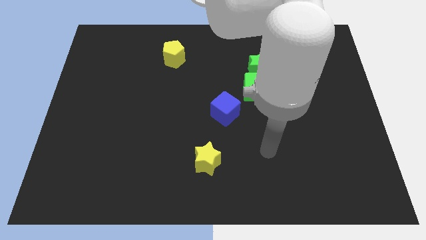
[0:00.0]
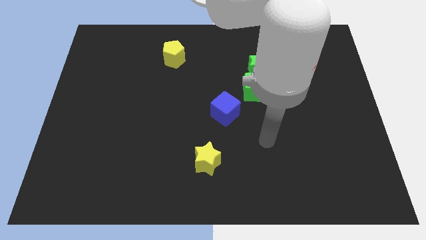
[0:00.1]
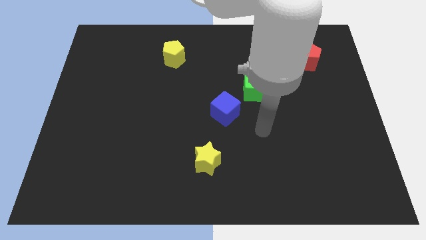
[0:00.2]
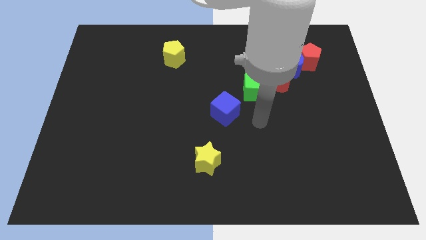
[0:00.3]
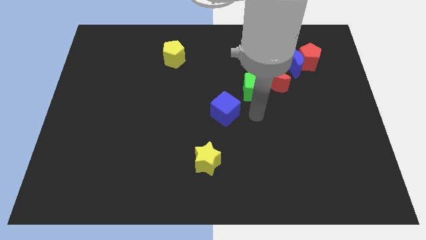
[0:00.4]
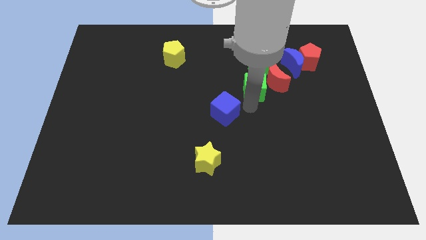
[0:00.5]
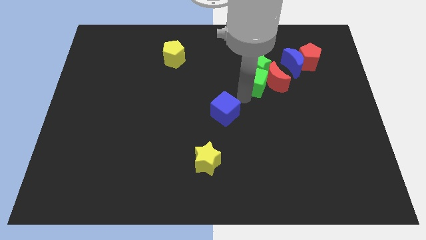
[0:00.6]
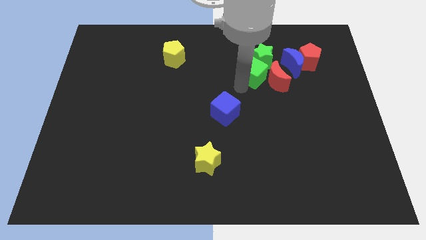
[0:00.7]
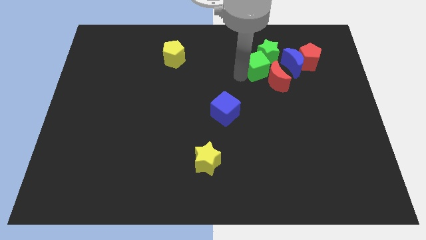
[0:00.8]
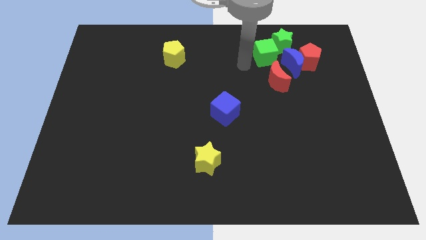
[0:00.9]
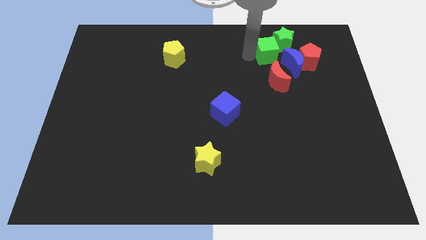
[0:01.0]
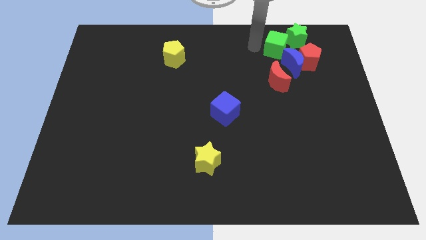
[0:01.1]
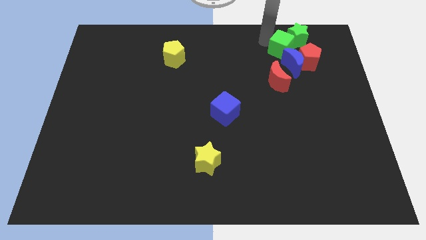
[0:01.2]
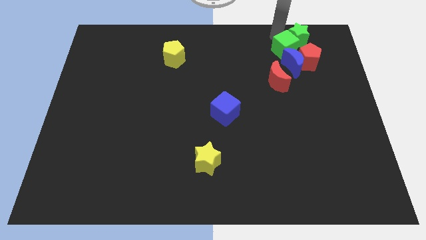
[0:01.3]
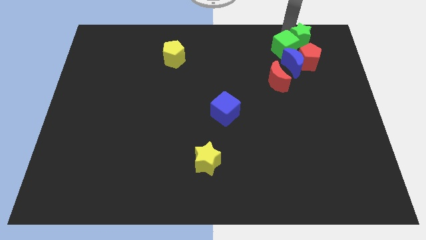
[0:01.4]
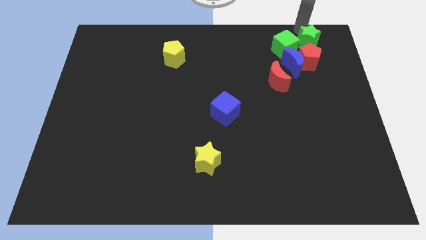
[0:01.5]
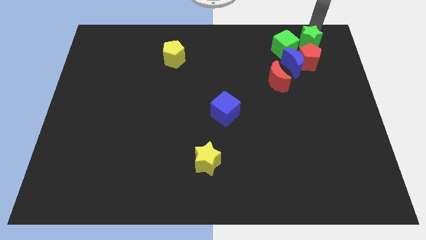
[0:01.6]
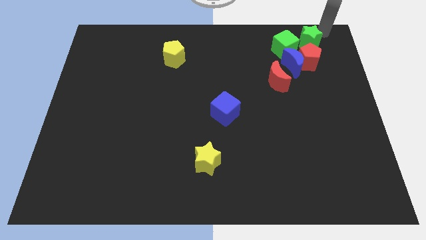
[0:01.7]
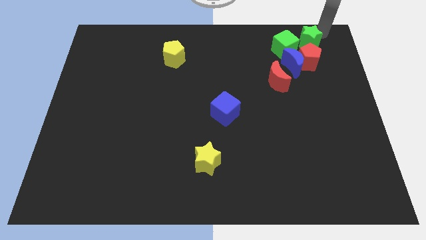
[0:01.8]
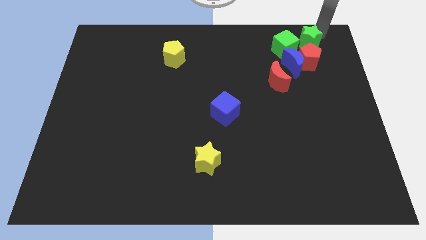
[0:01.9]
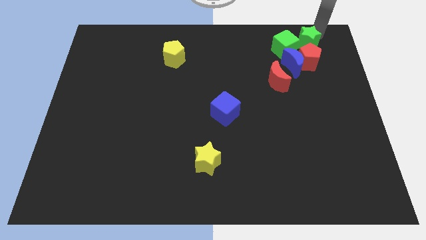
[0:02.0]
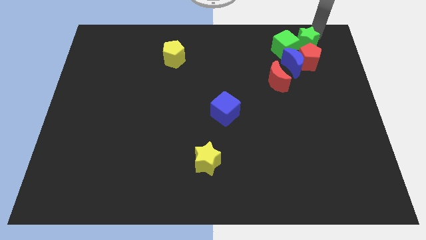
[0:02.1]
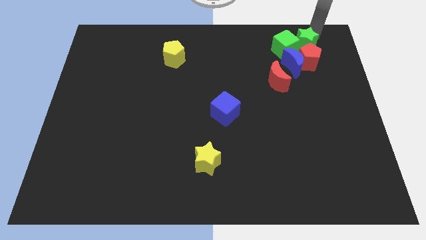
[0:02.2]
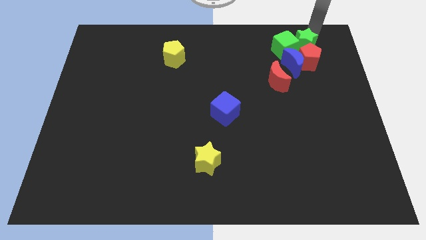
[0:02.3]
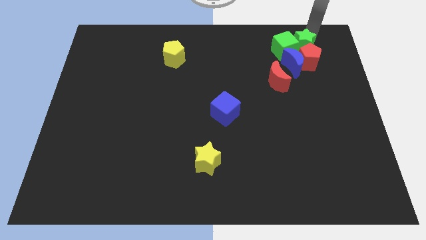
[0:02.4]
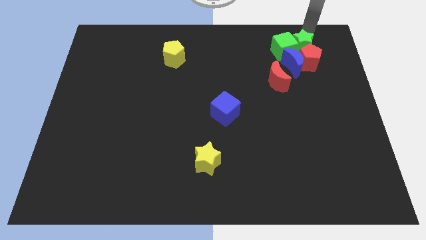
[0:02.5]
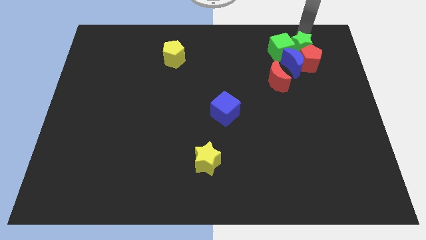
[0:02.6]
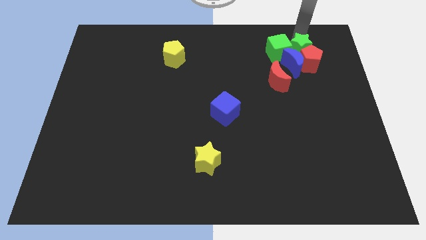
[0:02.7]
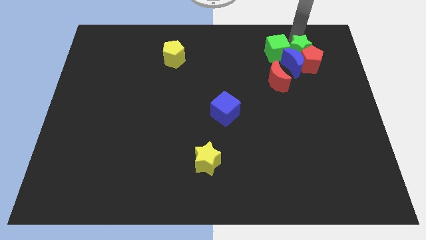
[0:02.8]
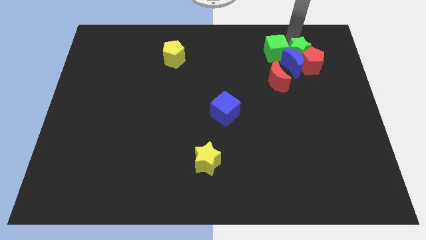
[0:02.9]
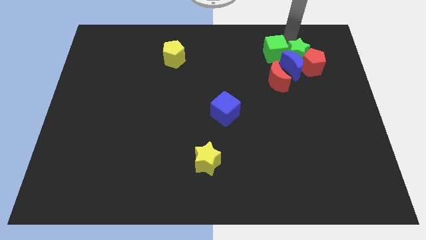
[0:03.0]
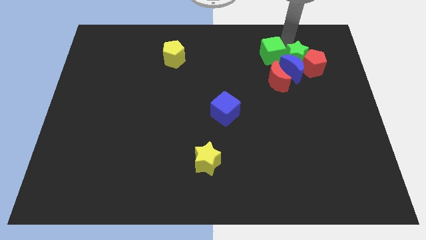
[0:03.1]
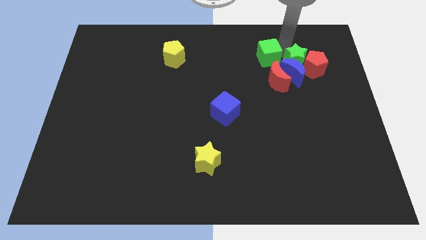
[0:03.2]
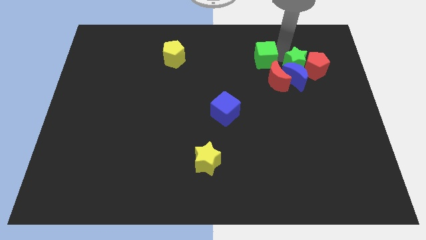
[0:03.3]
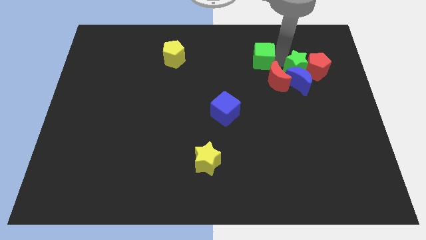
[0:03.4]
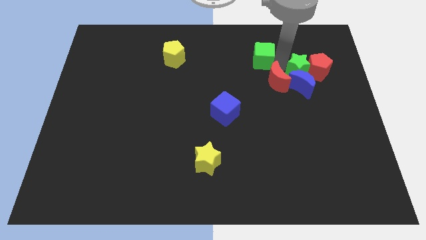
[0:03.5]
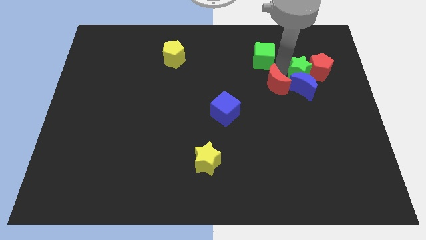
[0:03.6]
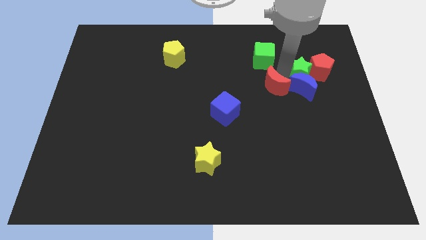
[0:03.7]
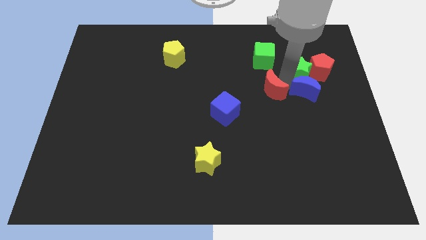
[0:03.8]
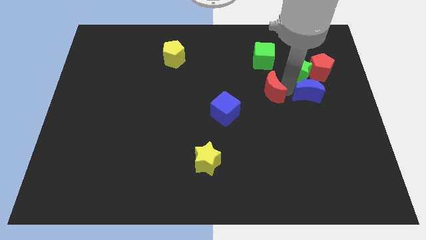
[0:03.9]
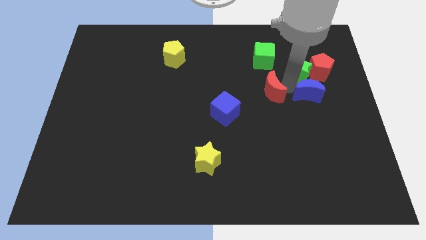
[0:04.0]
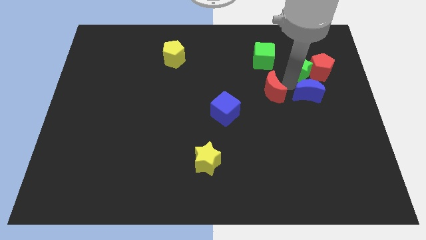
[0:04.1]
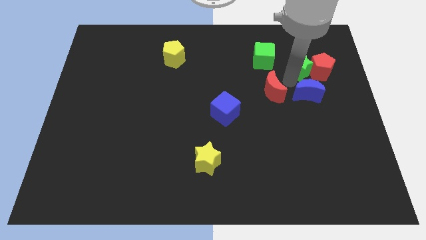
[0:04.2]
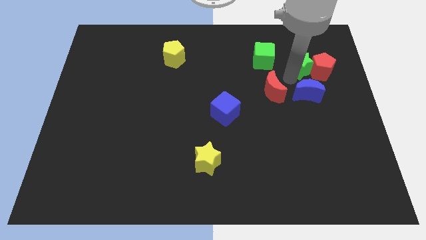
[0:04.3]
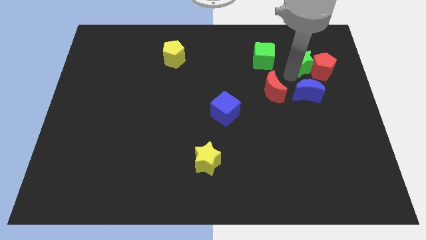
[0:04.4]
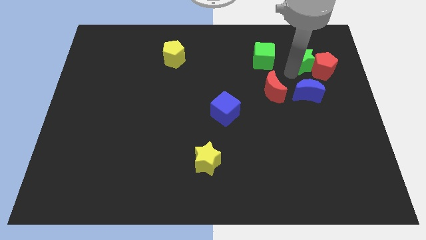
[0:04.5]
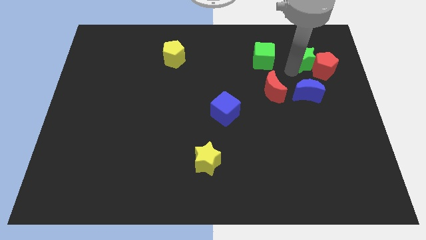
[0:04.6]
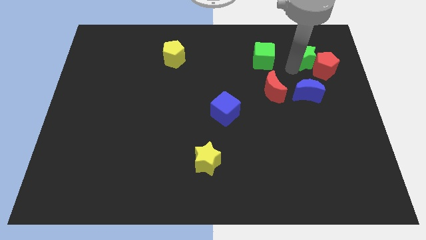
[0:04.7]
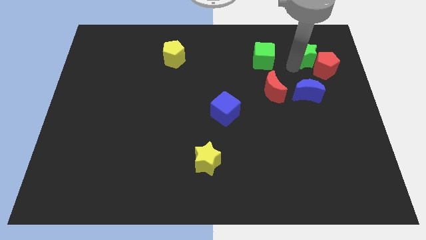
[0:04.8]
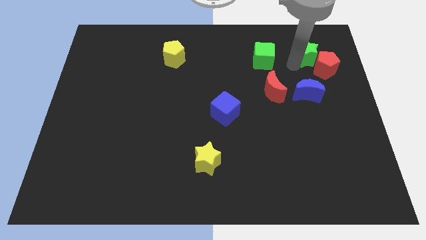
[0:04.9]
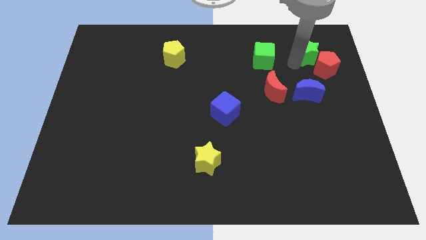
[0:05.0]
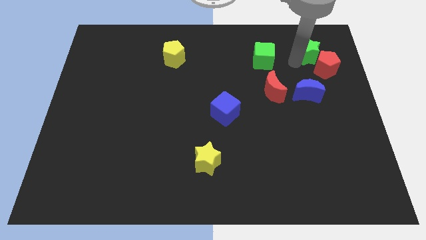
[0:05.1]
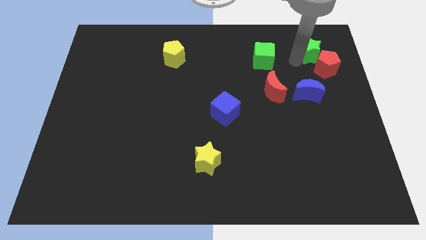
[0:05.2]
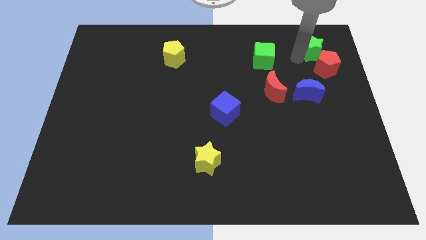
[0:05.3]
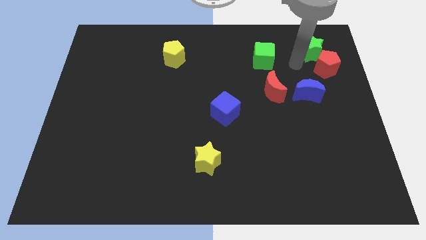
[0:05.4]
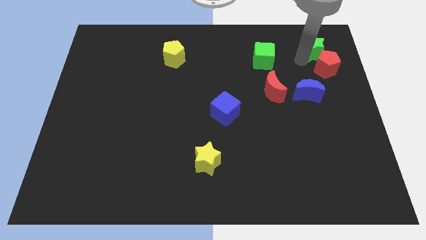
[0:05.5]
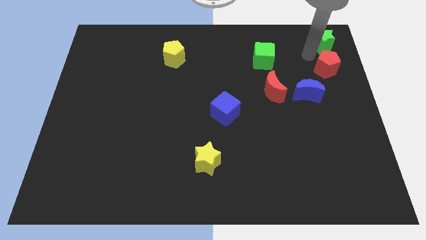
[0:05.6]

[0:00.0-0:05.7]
move the green star to the top right of the board
